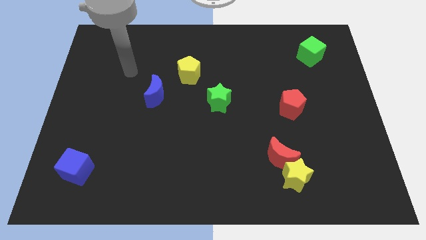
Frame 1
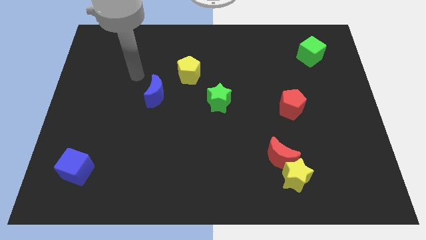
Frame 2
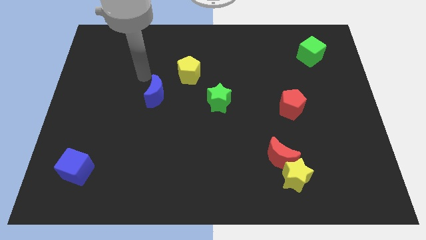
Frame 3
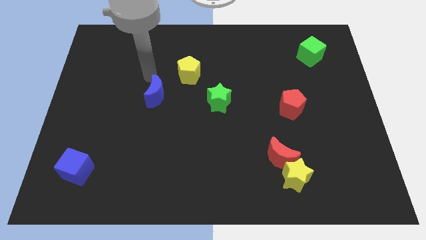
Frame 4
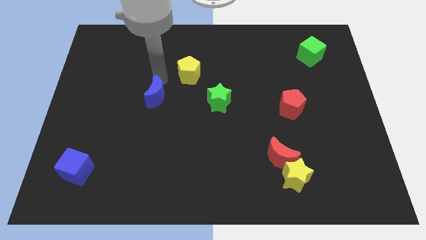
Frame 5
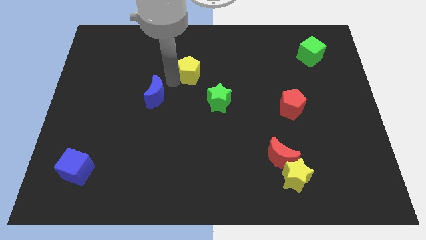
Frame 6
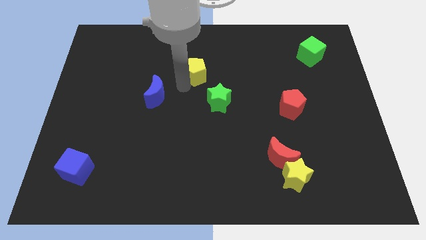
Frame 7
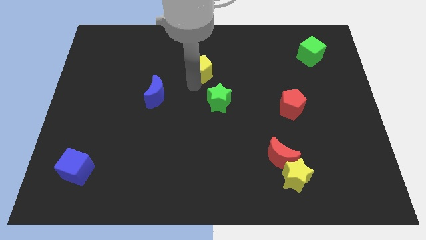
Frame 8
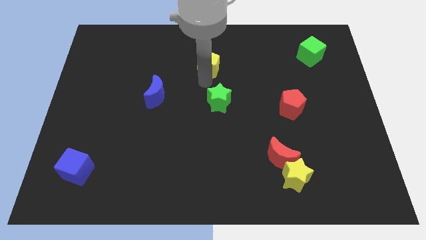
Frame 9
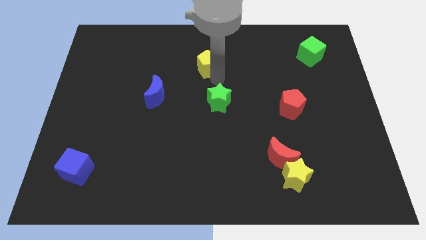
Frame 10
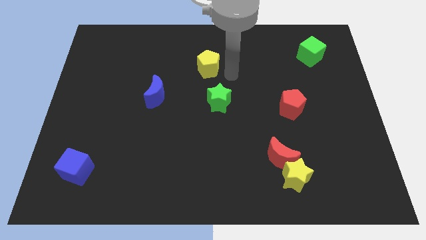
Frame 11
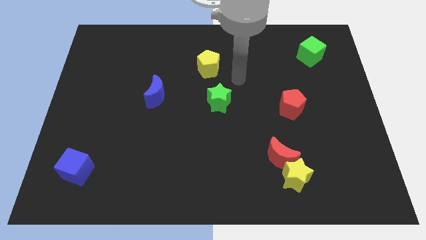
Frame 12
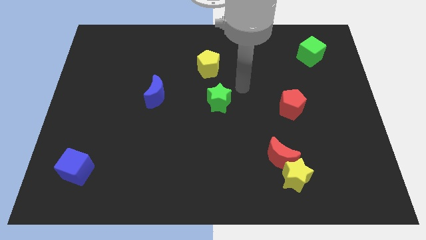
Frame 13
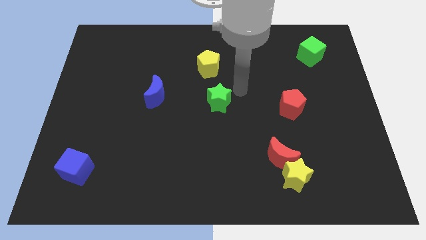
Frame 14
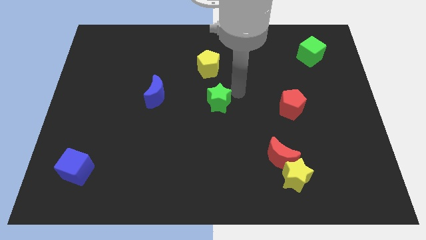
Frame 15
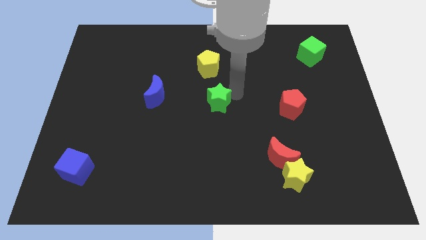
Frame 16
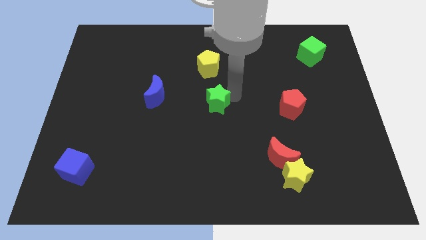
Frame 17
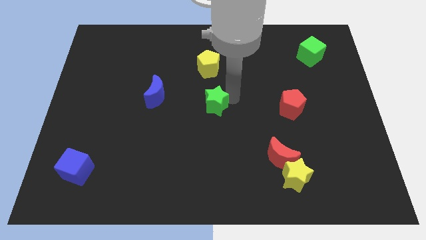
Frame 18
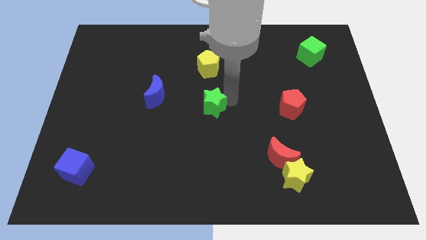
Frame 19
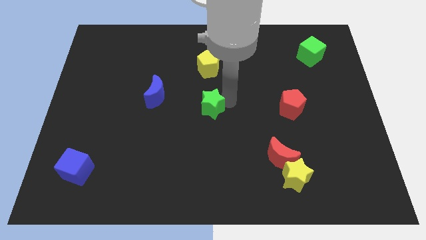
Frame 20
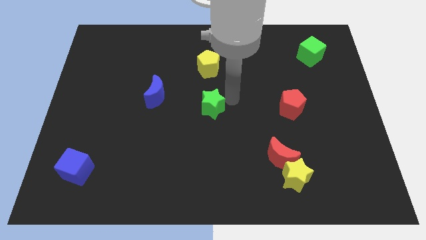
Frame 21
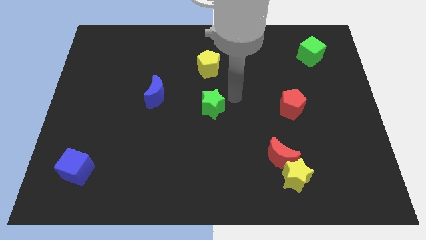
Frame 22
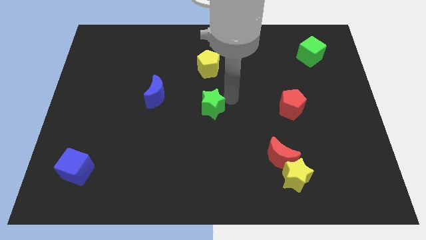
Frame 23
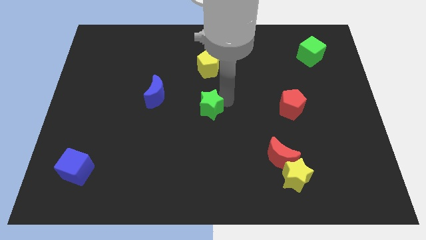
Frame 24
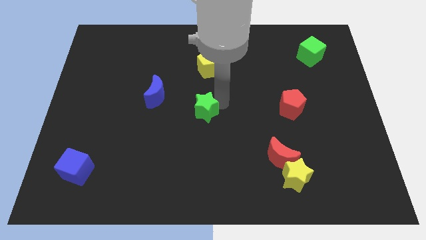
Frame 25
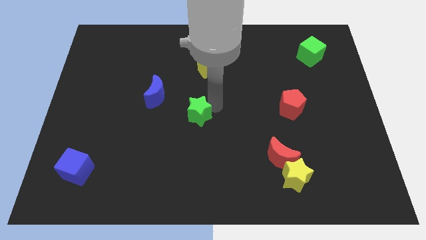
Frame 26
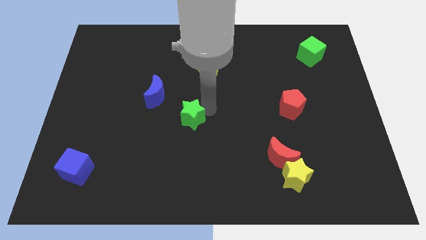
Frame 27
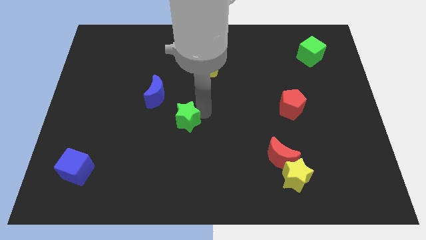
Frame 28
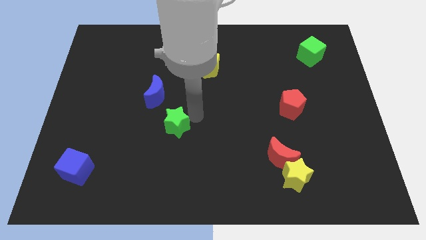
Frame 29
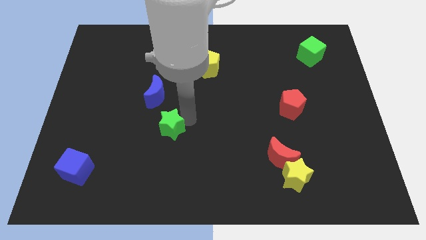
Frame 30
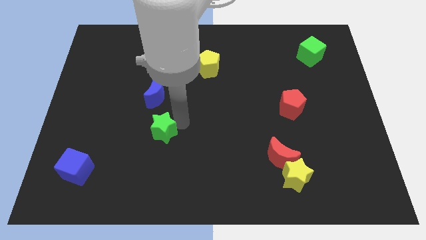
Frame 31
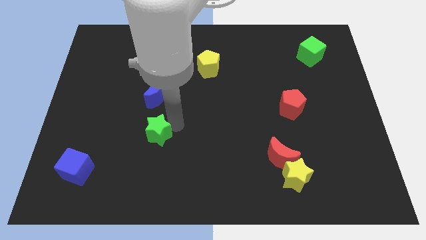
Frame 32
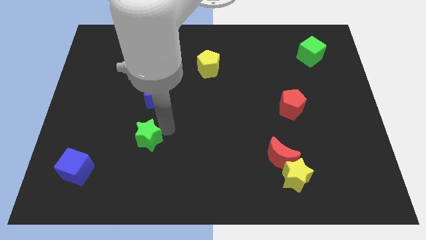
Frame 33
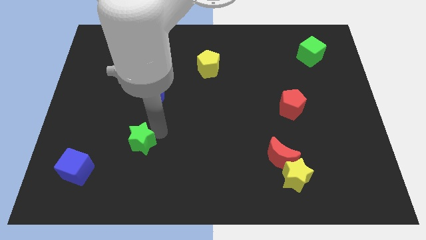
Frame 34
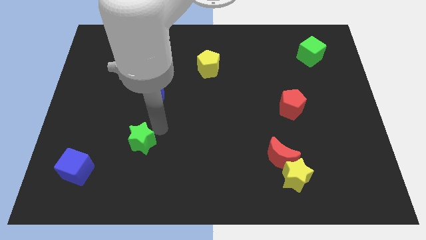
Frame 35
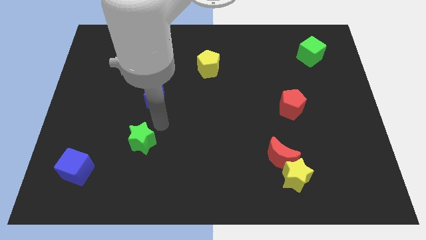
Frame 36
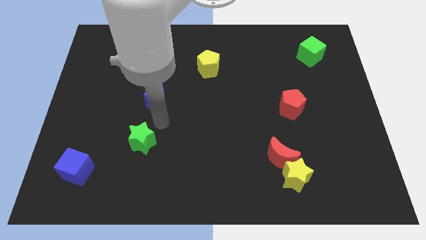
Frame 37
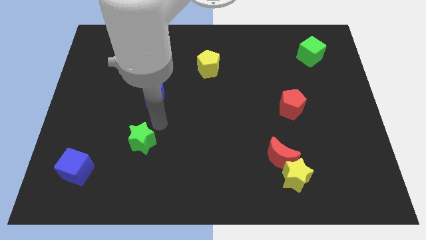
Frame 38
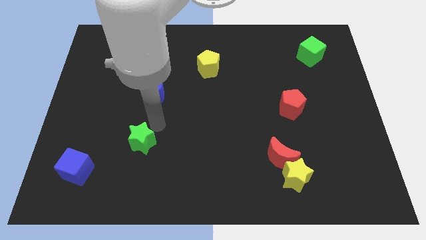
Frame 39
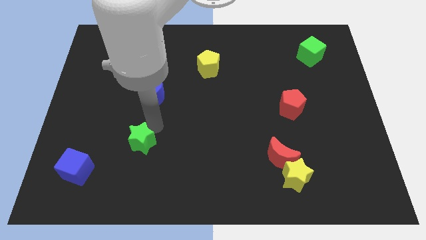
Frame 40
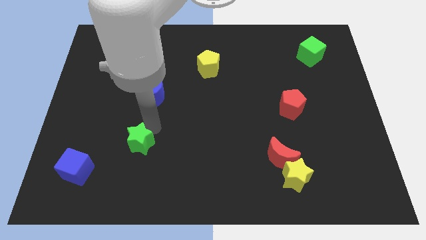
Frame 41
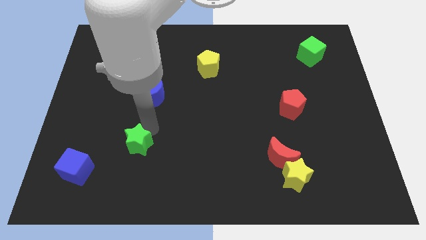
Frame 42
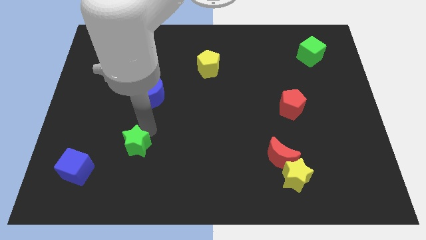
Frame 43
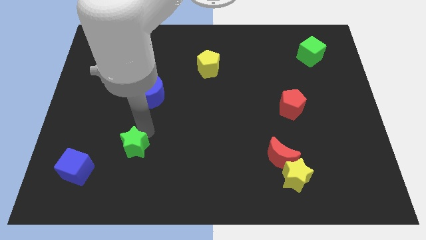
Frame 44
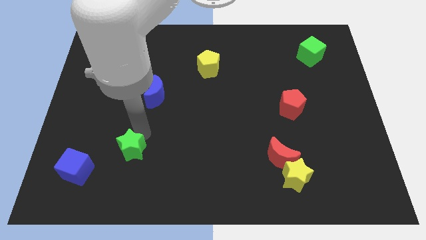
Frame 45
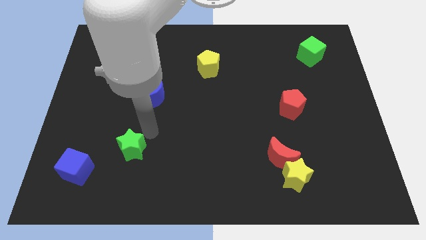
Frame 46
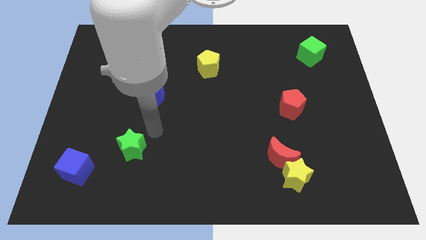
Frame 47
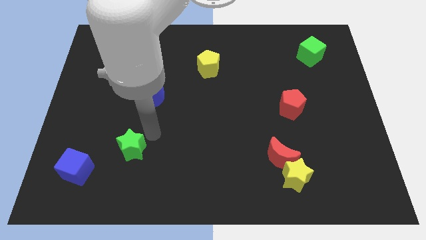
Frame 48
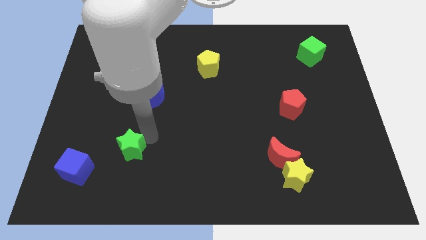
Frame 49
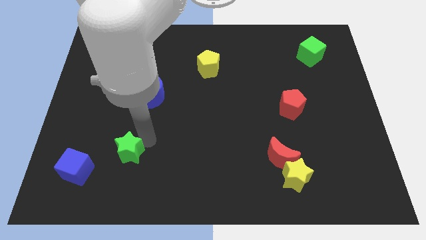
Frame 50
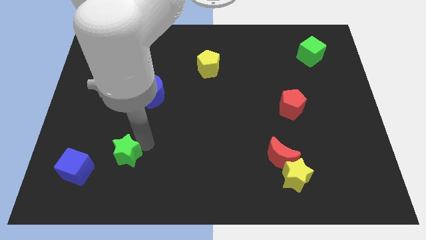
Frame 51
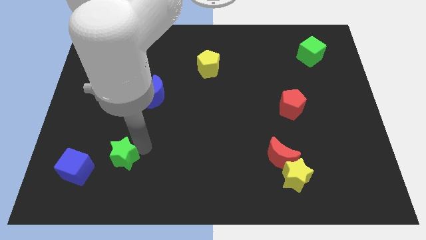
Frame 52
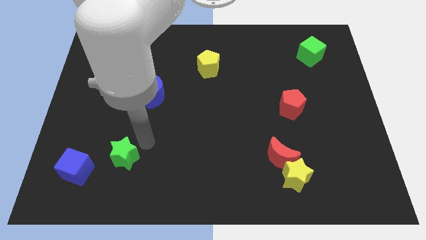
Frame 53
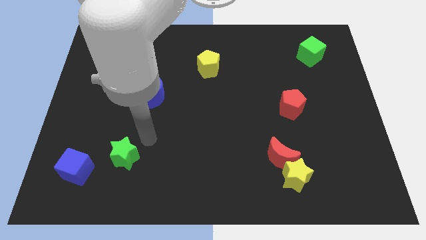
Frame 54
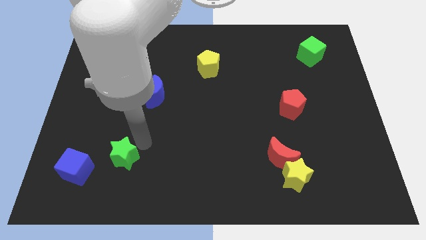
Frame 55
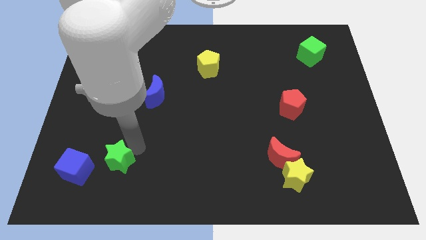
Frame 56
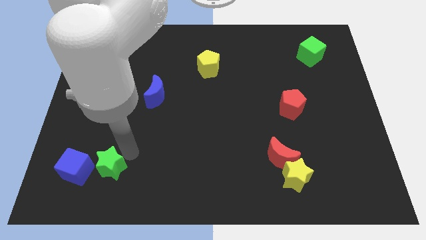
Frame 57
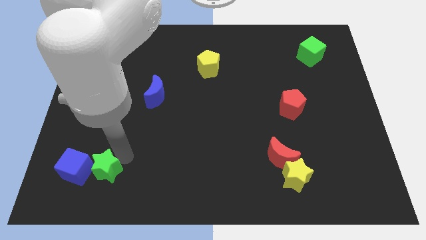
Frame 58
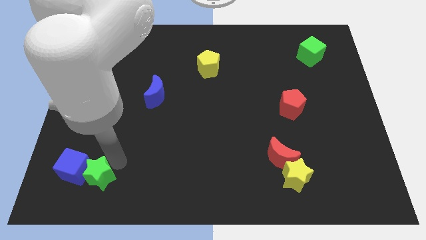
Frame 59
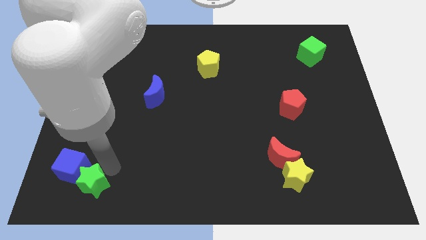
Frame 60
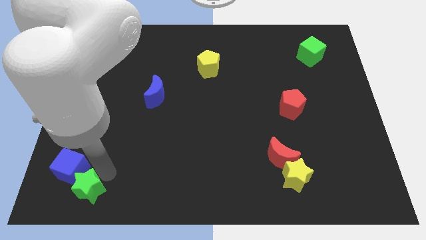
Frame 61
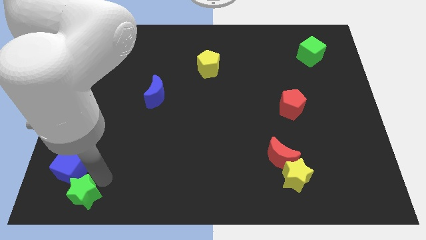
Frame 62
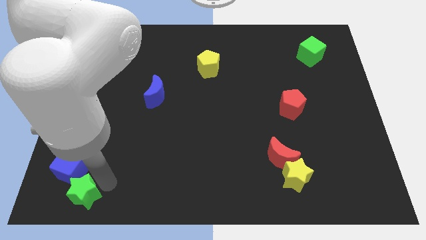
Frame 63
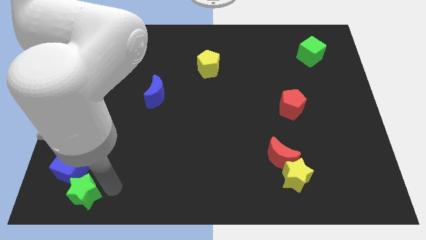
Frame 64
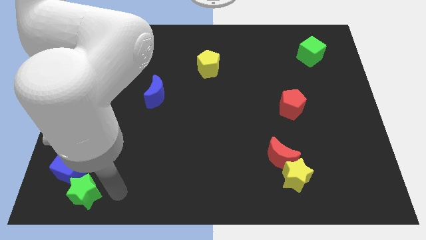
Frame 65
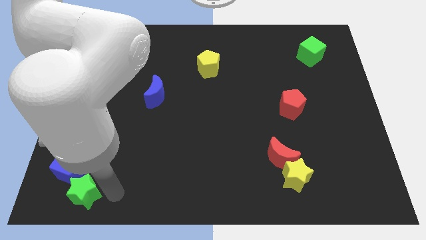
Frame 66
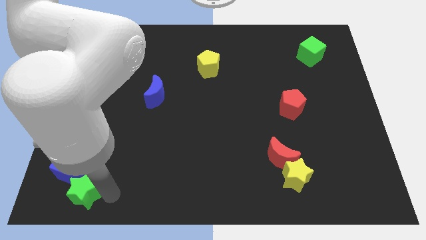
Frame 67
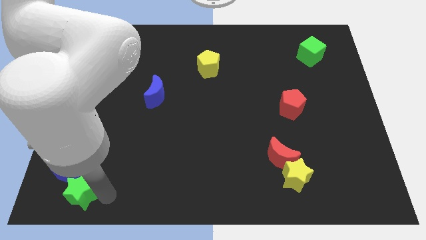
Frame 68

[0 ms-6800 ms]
slide the green star to the bottom left

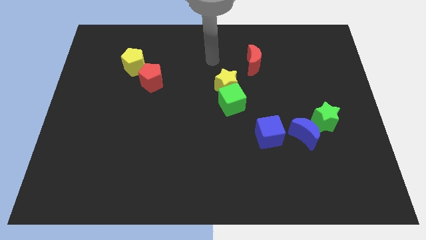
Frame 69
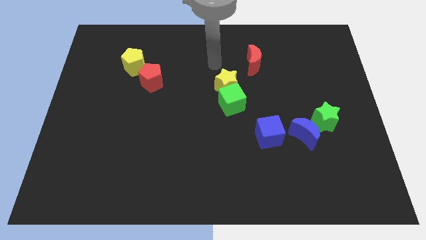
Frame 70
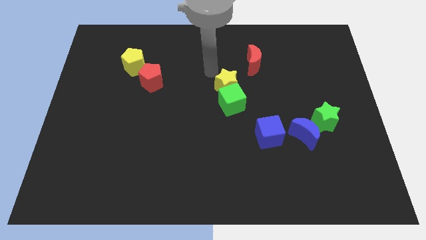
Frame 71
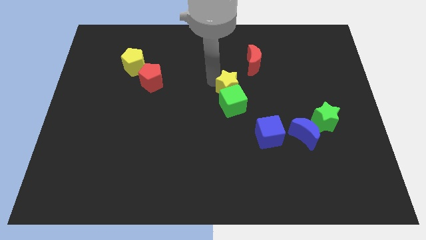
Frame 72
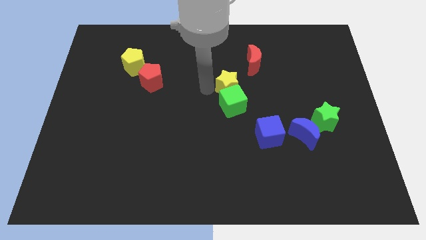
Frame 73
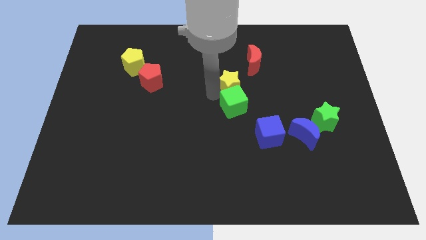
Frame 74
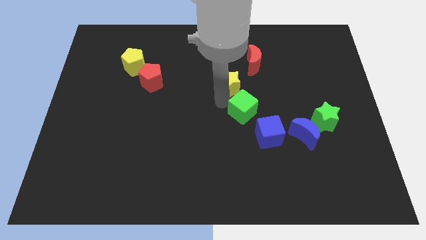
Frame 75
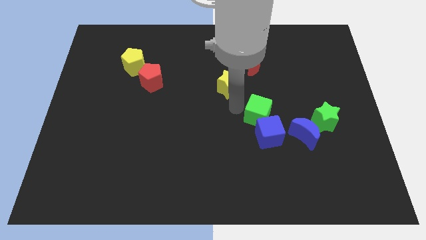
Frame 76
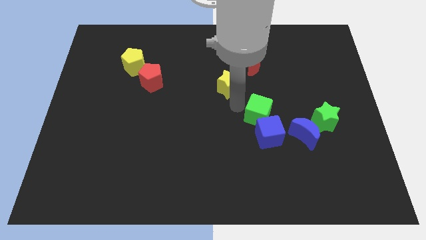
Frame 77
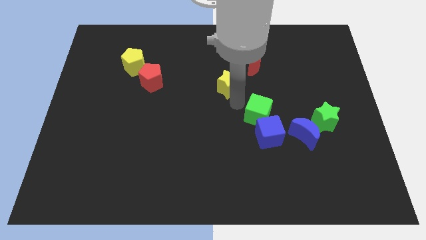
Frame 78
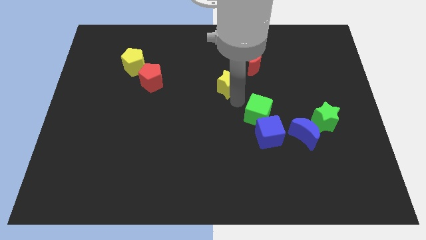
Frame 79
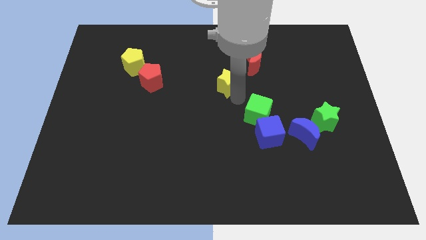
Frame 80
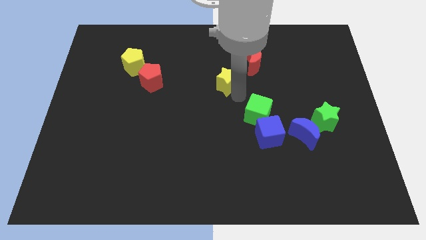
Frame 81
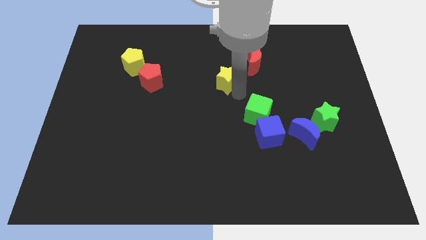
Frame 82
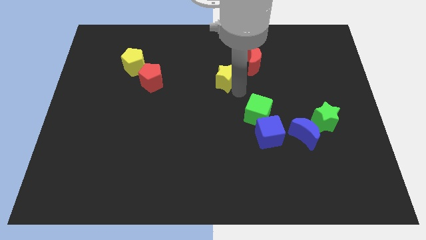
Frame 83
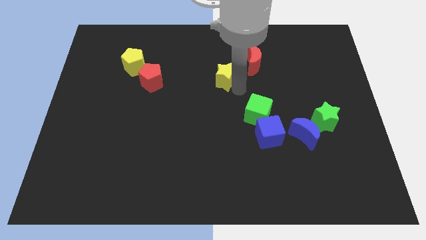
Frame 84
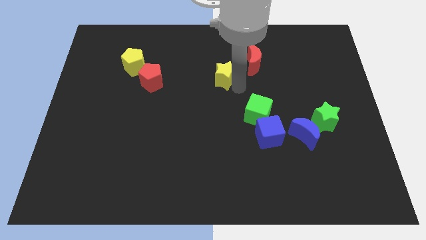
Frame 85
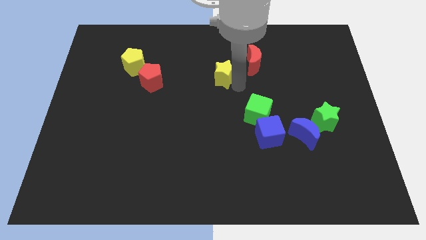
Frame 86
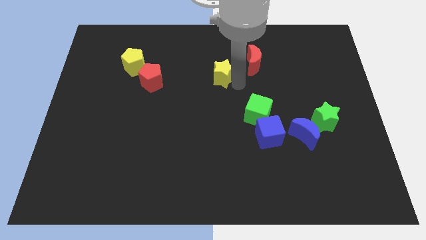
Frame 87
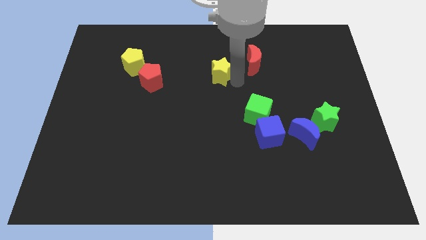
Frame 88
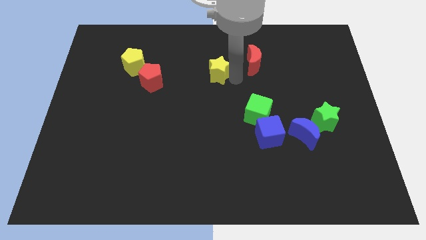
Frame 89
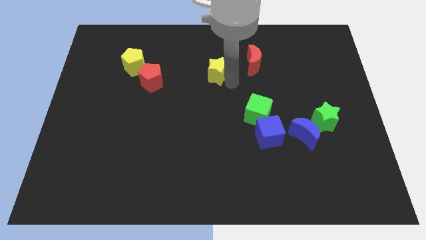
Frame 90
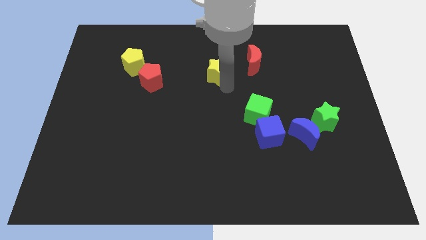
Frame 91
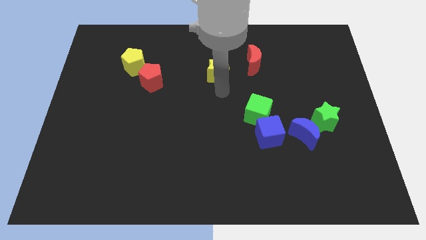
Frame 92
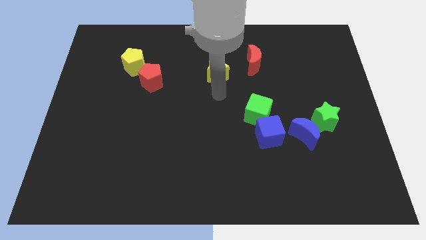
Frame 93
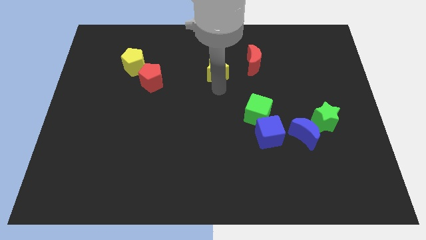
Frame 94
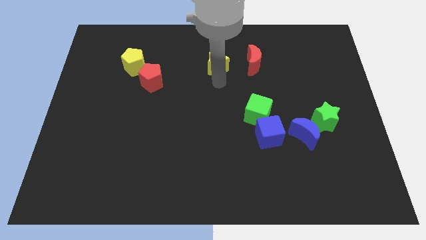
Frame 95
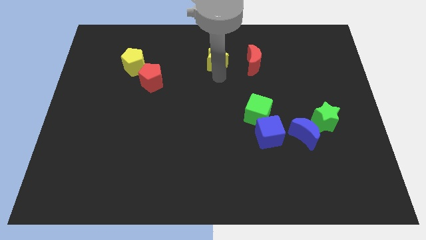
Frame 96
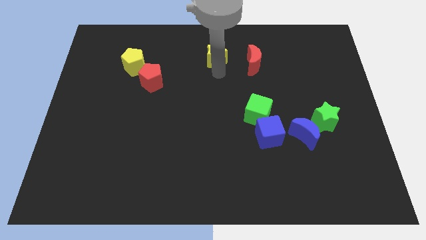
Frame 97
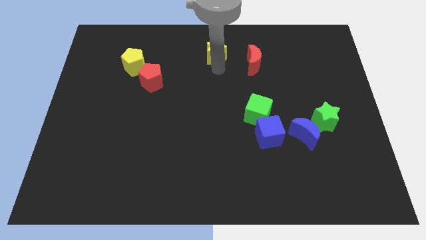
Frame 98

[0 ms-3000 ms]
move the yellow star to the towards your base
